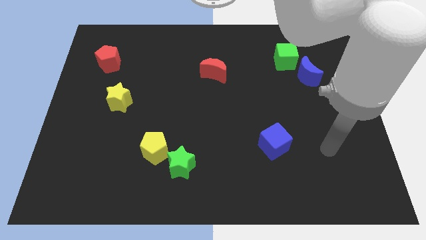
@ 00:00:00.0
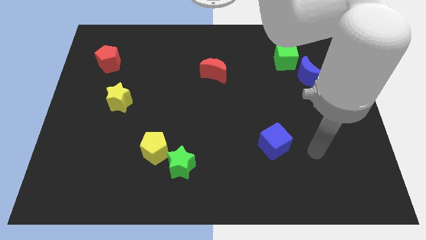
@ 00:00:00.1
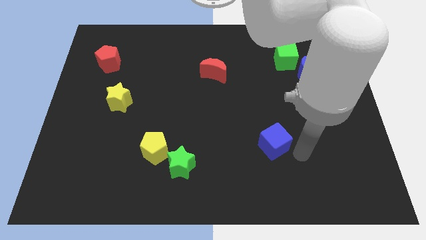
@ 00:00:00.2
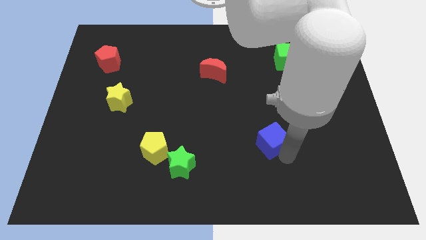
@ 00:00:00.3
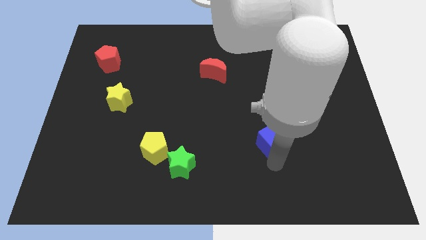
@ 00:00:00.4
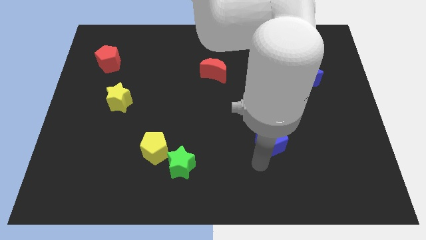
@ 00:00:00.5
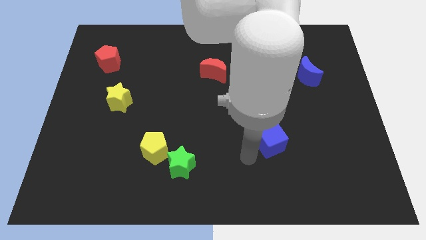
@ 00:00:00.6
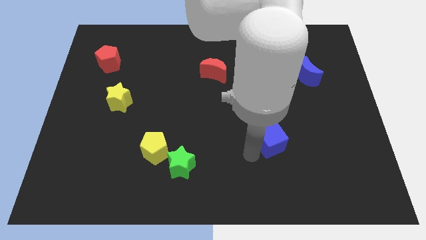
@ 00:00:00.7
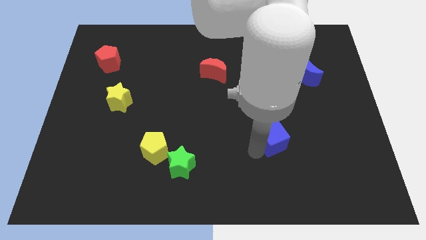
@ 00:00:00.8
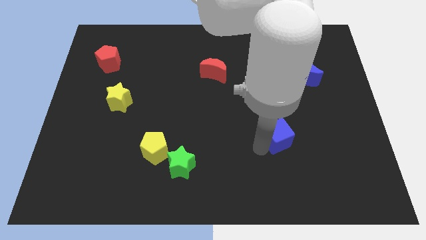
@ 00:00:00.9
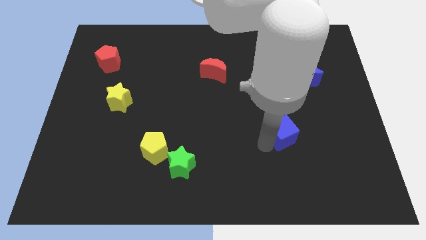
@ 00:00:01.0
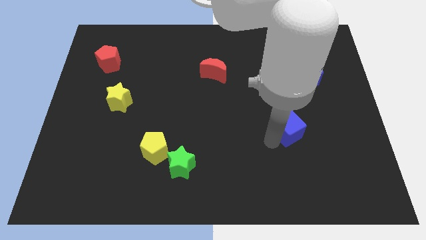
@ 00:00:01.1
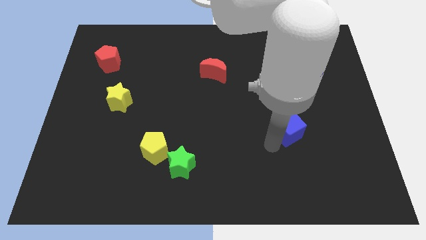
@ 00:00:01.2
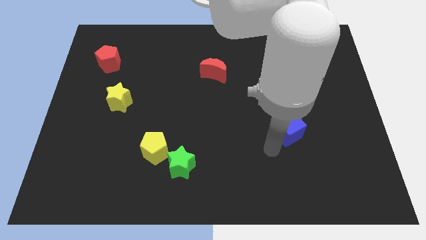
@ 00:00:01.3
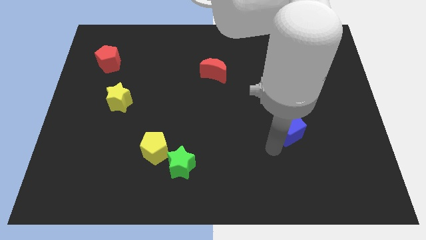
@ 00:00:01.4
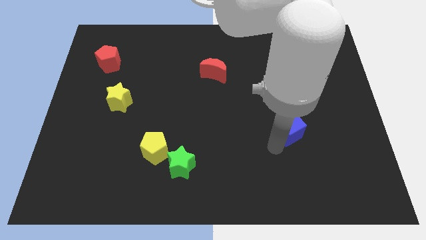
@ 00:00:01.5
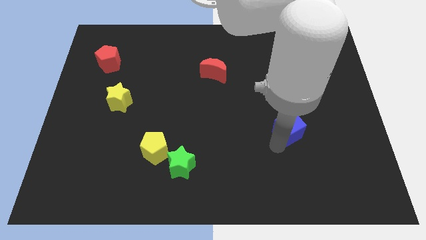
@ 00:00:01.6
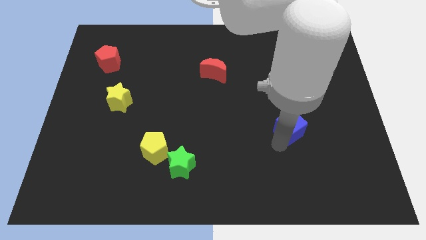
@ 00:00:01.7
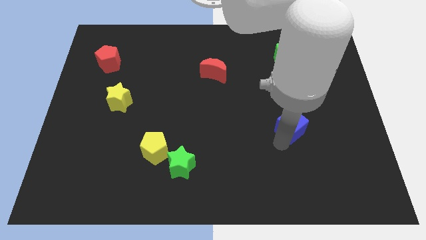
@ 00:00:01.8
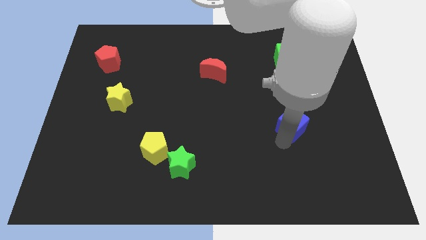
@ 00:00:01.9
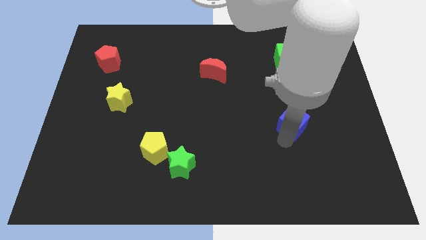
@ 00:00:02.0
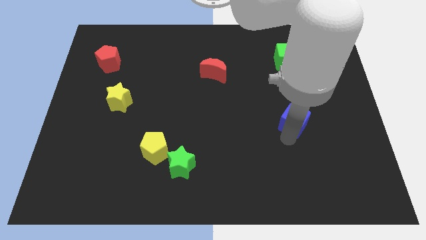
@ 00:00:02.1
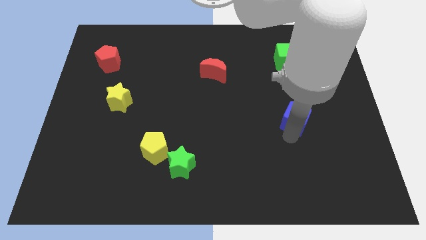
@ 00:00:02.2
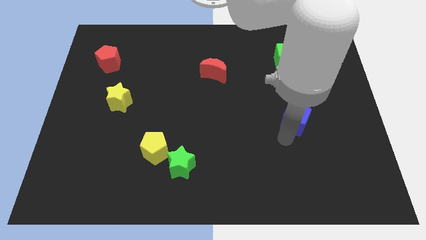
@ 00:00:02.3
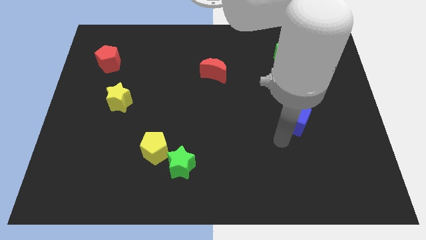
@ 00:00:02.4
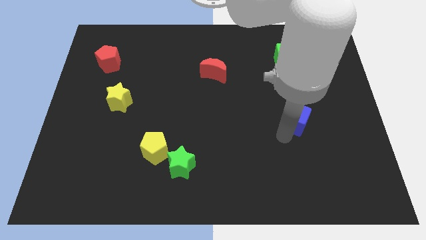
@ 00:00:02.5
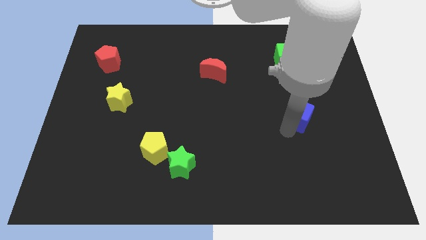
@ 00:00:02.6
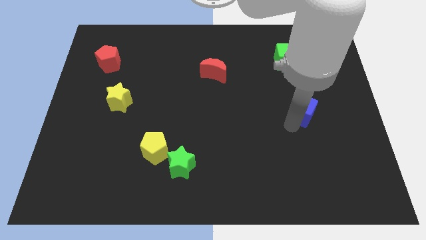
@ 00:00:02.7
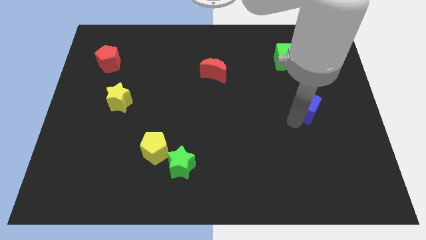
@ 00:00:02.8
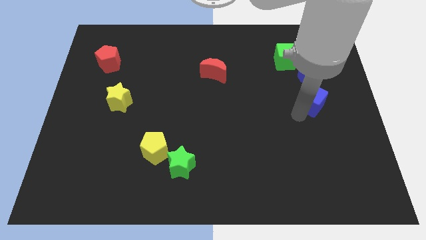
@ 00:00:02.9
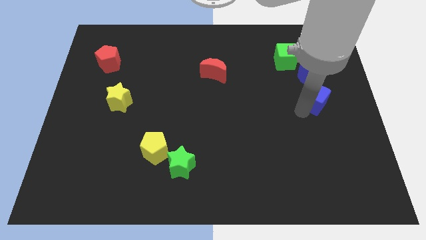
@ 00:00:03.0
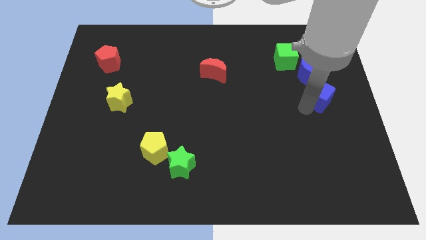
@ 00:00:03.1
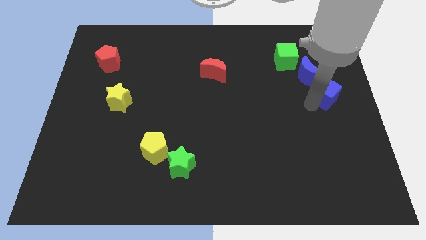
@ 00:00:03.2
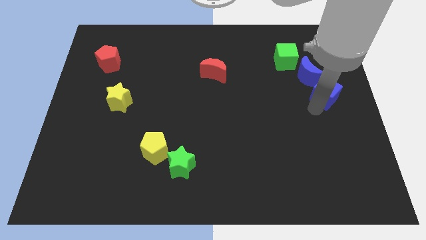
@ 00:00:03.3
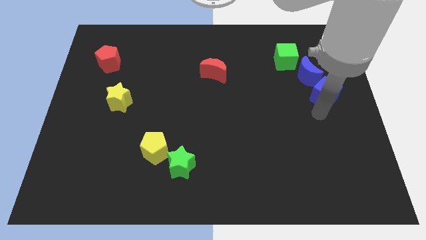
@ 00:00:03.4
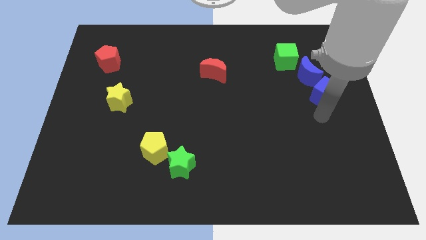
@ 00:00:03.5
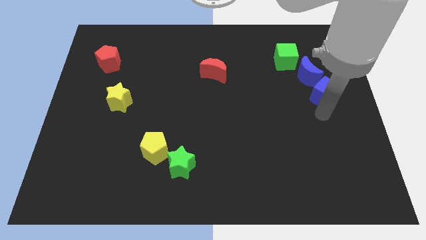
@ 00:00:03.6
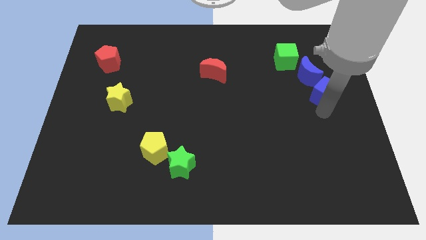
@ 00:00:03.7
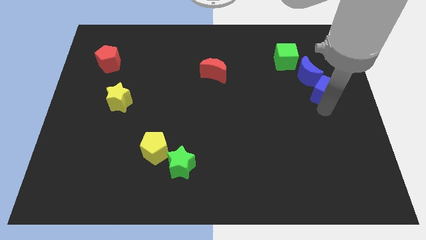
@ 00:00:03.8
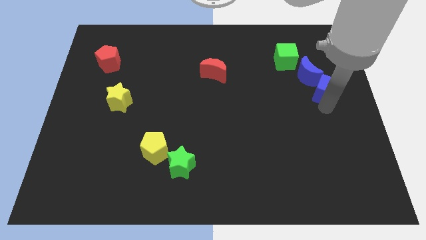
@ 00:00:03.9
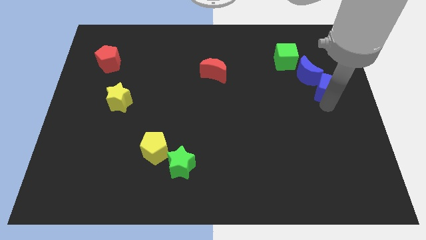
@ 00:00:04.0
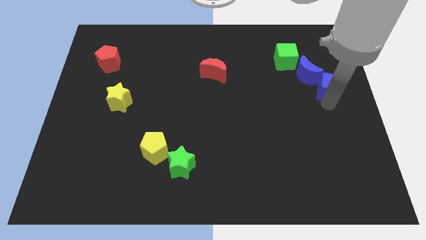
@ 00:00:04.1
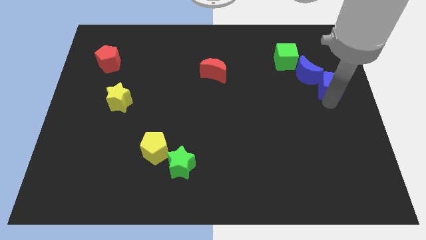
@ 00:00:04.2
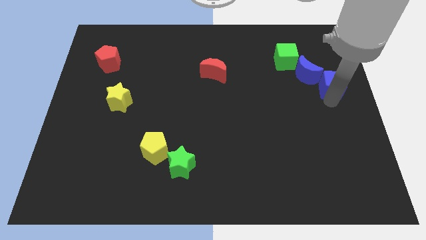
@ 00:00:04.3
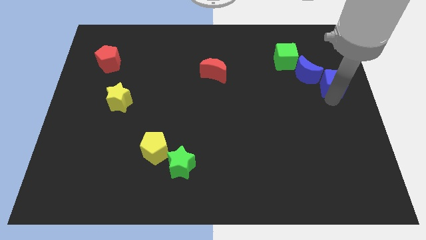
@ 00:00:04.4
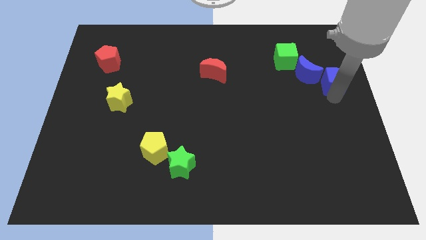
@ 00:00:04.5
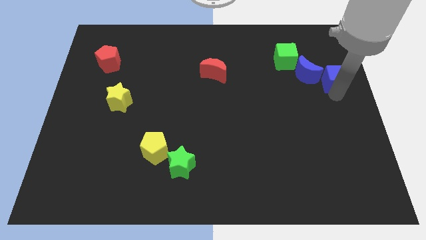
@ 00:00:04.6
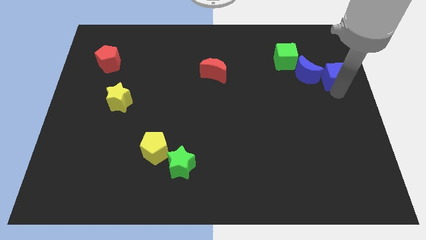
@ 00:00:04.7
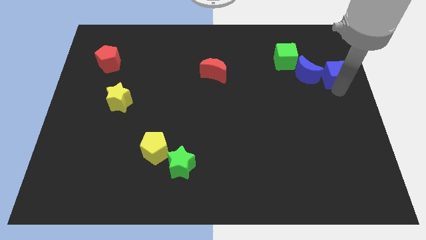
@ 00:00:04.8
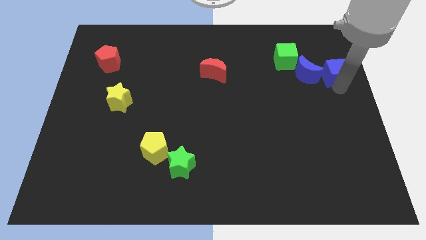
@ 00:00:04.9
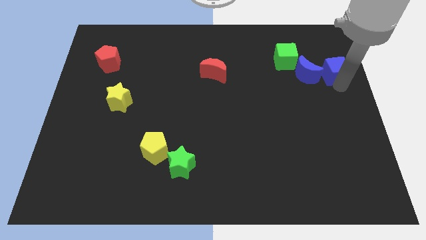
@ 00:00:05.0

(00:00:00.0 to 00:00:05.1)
put the blue cube to the top right of the blue moon

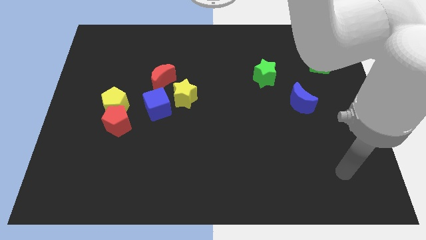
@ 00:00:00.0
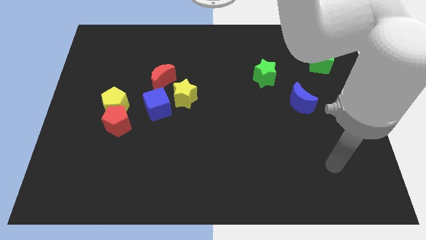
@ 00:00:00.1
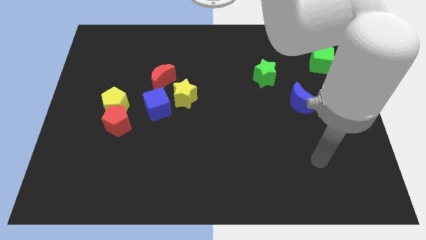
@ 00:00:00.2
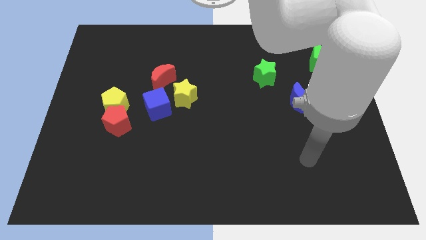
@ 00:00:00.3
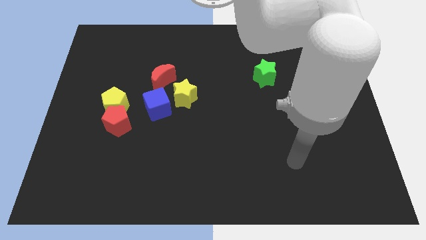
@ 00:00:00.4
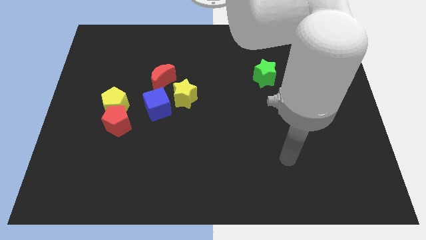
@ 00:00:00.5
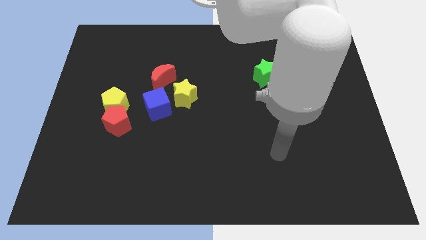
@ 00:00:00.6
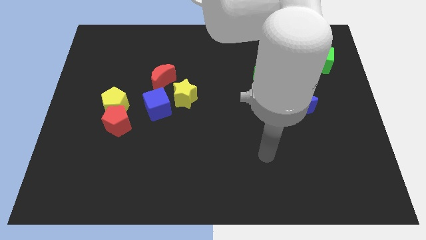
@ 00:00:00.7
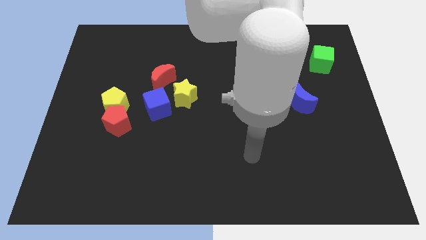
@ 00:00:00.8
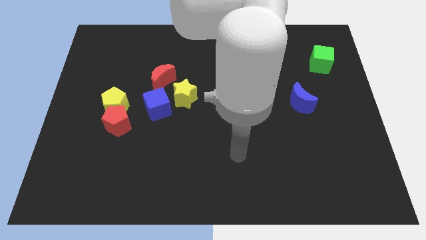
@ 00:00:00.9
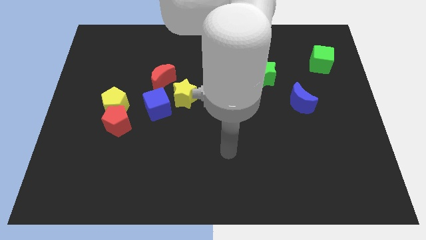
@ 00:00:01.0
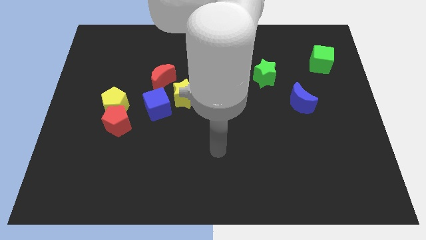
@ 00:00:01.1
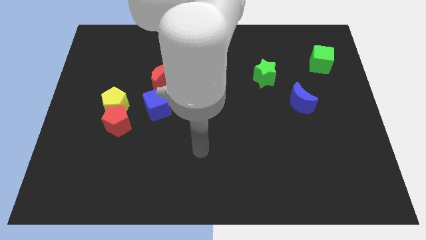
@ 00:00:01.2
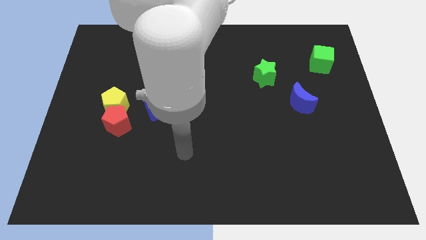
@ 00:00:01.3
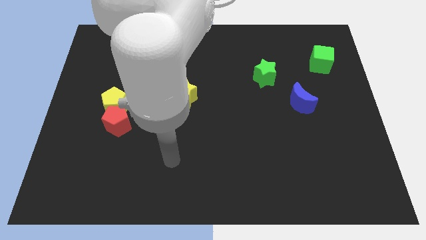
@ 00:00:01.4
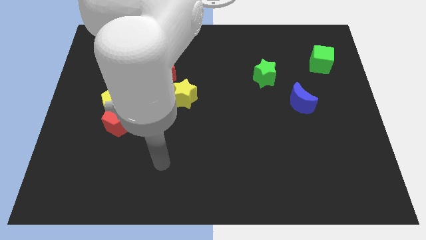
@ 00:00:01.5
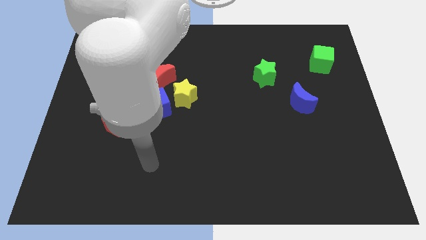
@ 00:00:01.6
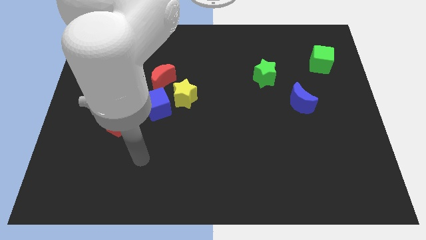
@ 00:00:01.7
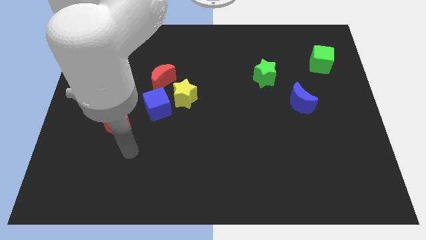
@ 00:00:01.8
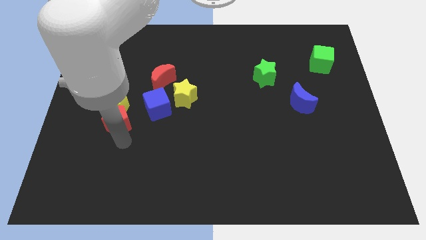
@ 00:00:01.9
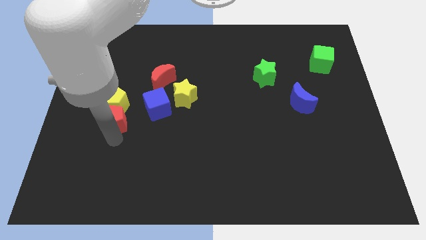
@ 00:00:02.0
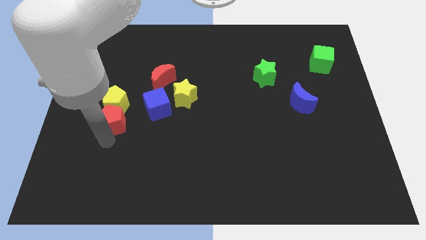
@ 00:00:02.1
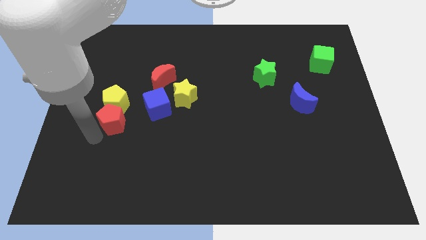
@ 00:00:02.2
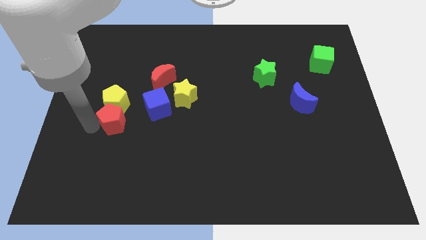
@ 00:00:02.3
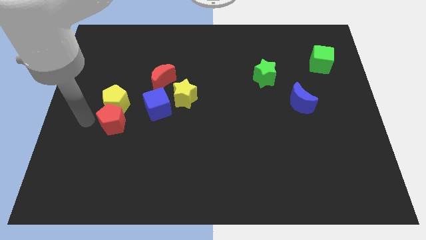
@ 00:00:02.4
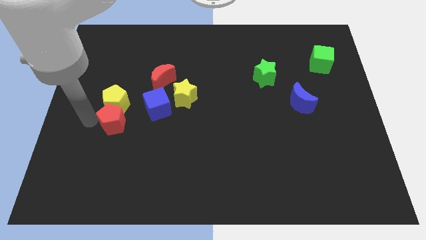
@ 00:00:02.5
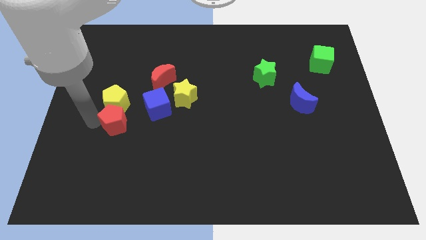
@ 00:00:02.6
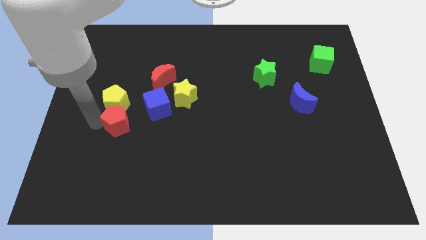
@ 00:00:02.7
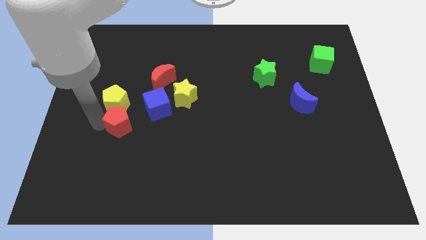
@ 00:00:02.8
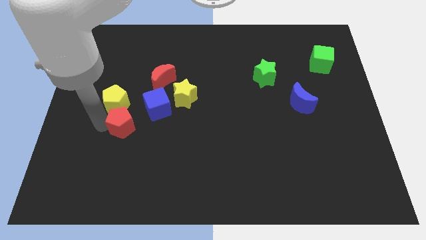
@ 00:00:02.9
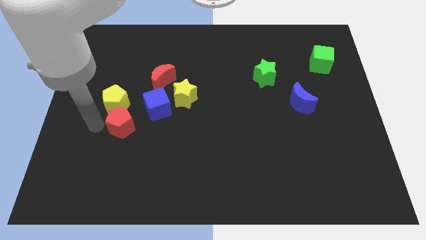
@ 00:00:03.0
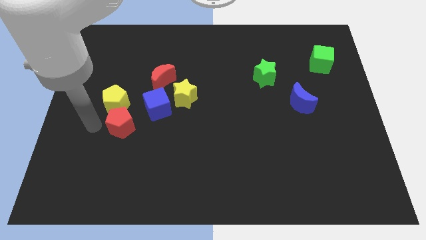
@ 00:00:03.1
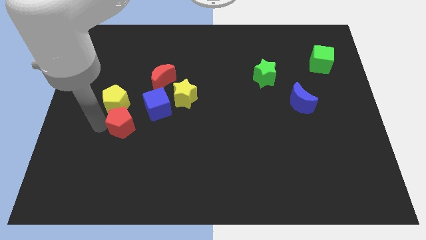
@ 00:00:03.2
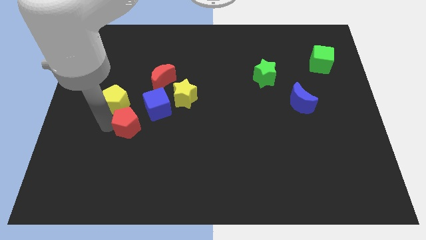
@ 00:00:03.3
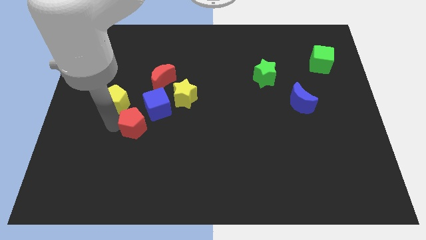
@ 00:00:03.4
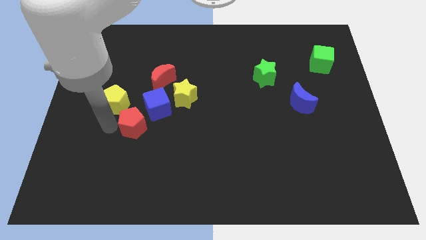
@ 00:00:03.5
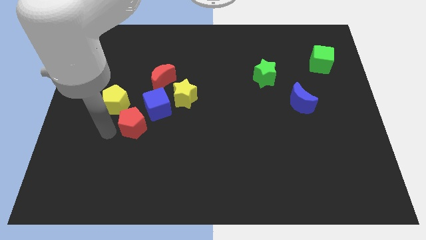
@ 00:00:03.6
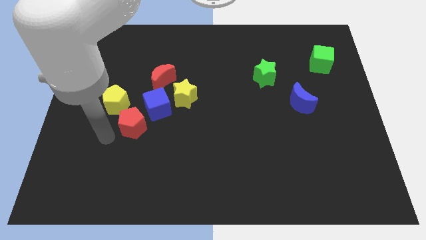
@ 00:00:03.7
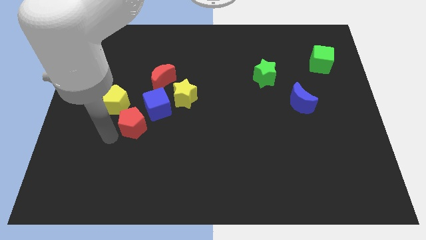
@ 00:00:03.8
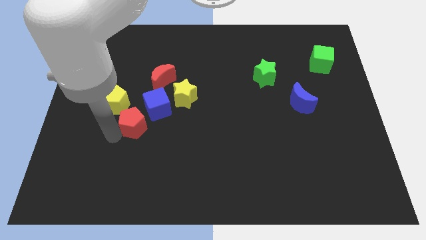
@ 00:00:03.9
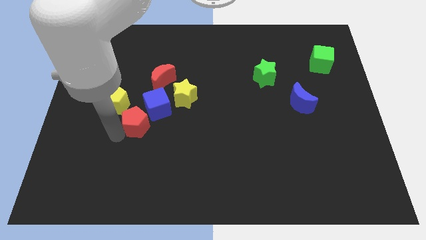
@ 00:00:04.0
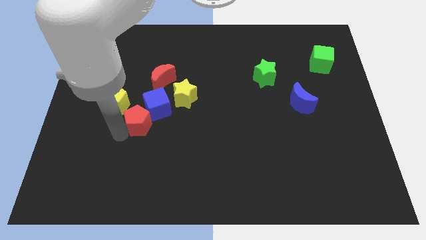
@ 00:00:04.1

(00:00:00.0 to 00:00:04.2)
move the red pentagon to the bottom of the red moon
